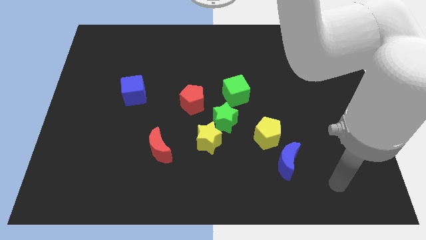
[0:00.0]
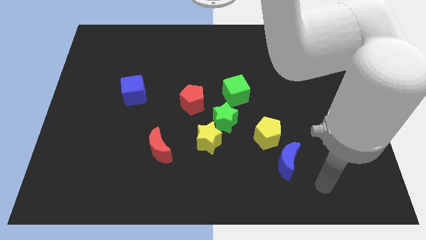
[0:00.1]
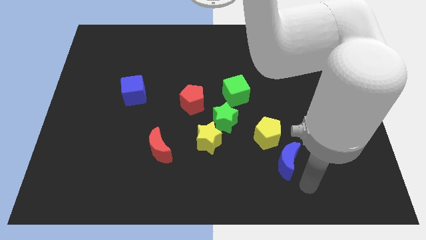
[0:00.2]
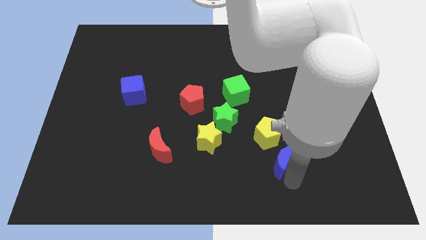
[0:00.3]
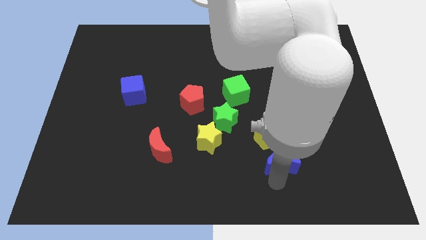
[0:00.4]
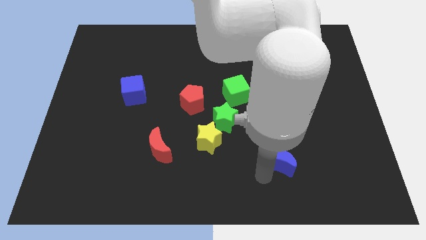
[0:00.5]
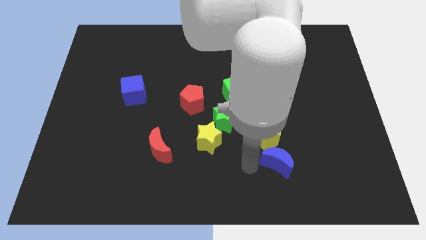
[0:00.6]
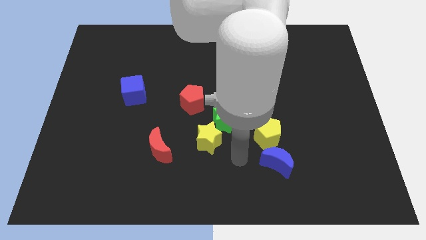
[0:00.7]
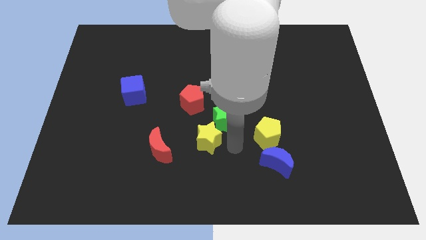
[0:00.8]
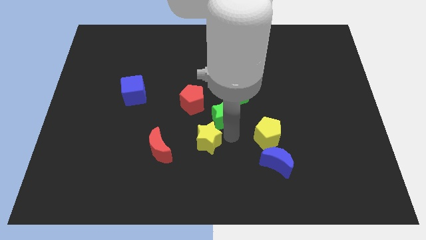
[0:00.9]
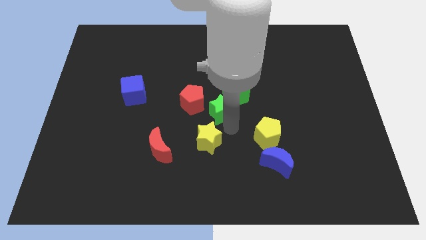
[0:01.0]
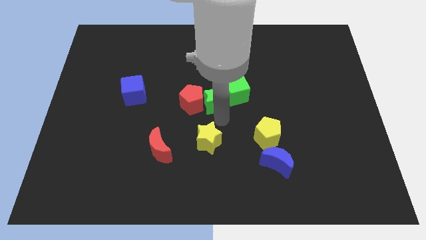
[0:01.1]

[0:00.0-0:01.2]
separate the yellow star from the green star

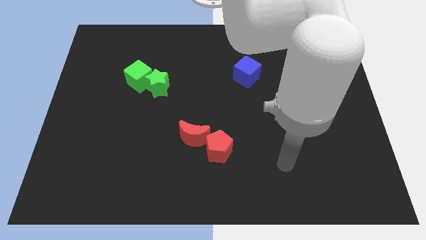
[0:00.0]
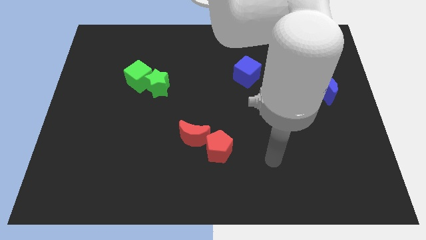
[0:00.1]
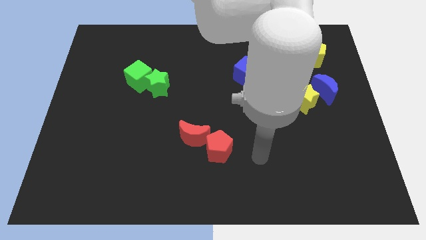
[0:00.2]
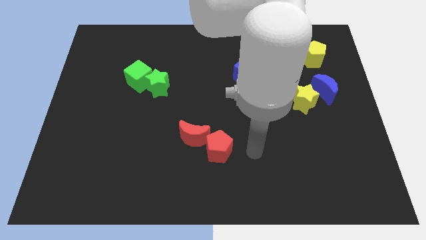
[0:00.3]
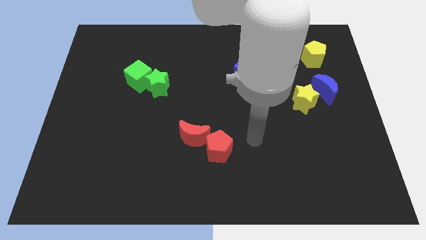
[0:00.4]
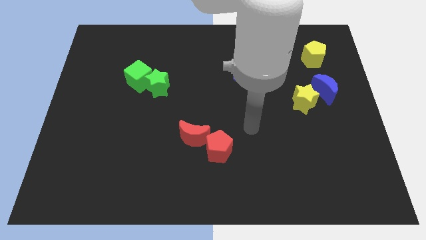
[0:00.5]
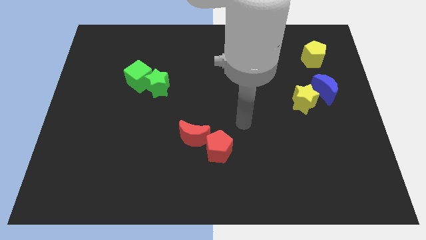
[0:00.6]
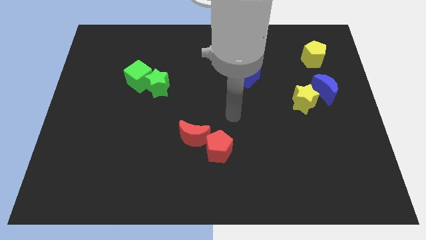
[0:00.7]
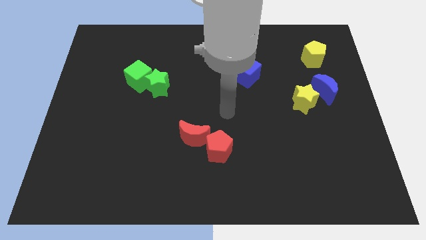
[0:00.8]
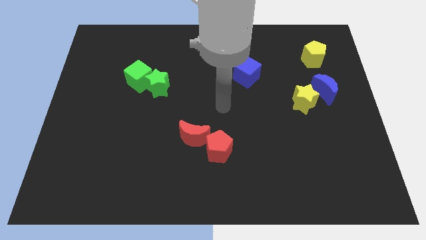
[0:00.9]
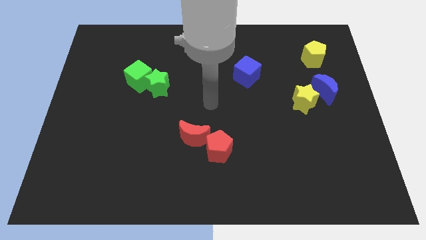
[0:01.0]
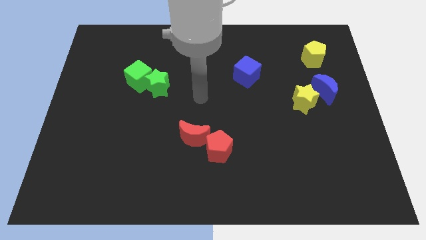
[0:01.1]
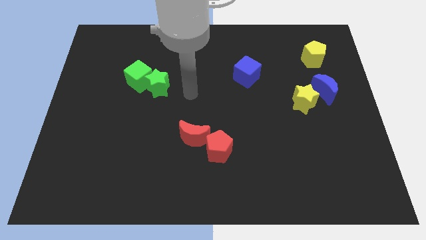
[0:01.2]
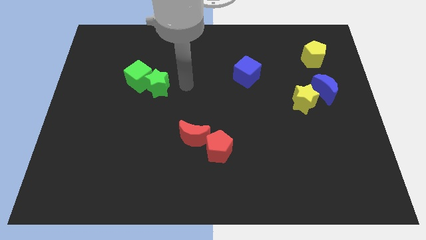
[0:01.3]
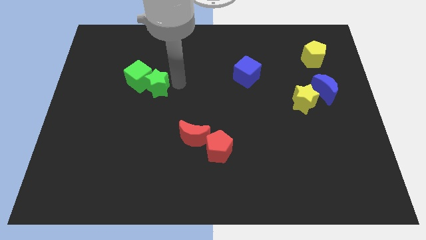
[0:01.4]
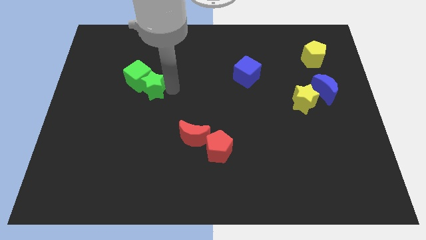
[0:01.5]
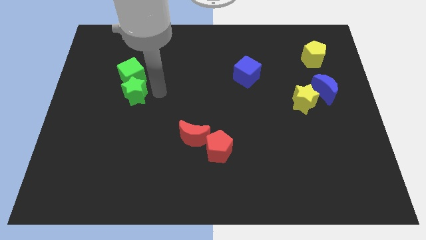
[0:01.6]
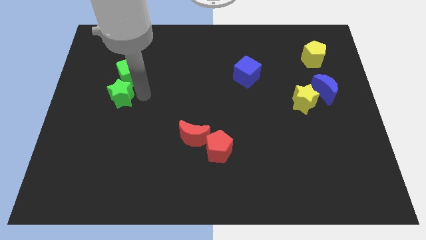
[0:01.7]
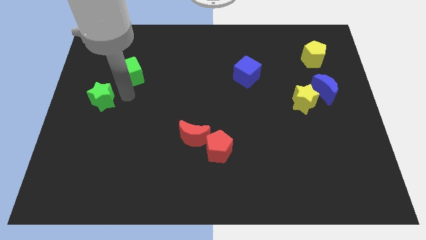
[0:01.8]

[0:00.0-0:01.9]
pull the green cube apart from the green star

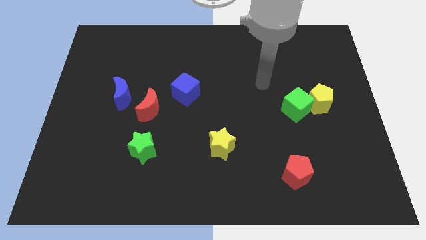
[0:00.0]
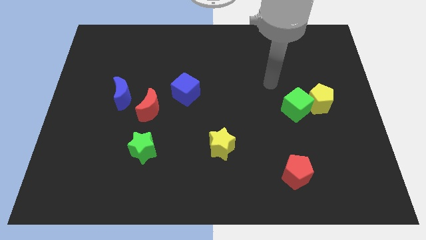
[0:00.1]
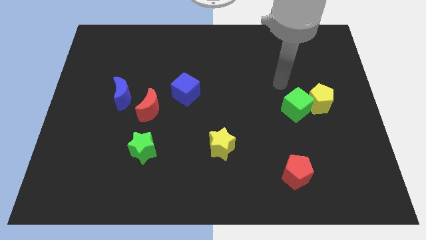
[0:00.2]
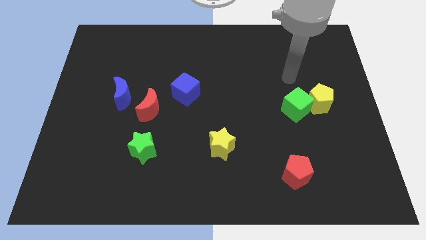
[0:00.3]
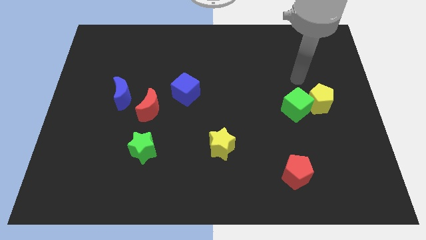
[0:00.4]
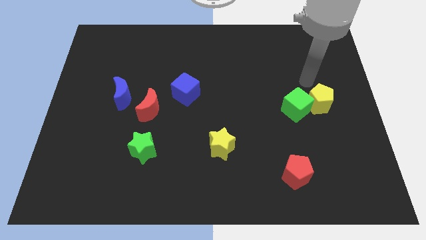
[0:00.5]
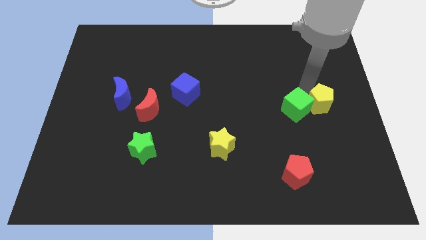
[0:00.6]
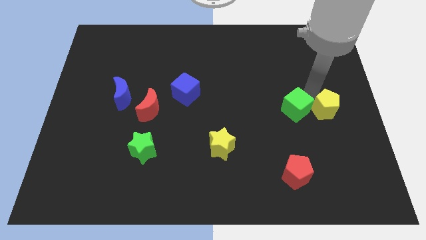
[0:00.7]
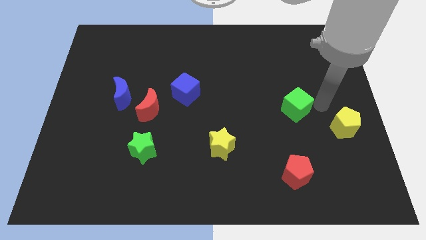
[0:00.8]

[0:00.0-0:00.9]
move the green cube away from the yellow pentagon

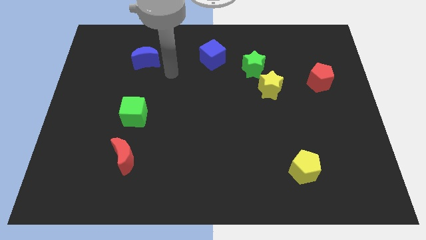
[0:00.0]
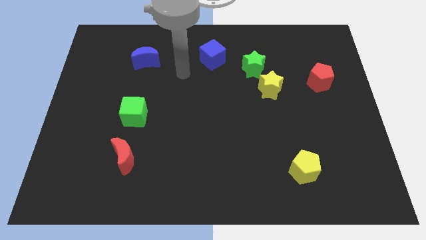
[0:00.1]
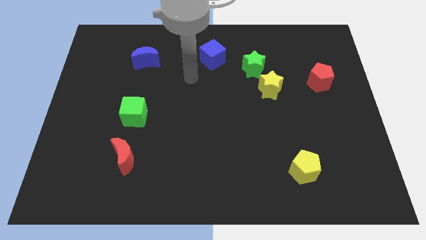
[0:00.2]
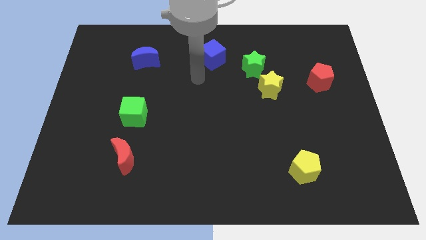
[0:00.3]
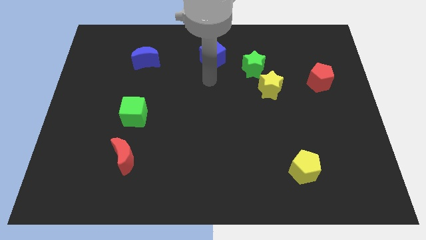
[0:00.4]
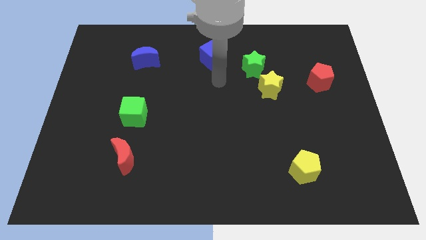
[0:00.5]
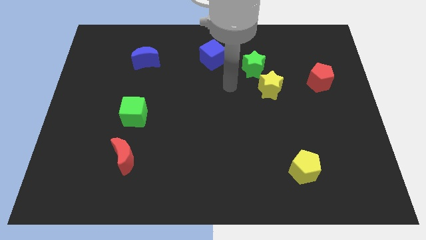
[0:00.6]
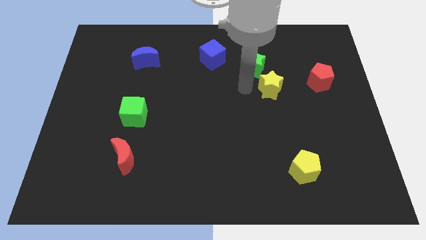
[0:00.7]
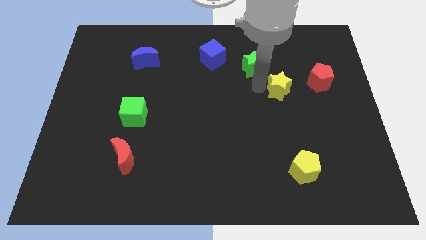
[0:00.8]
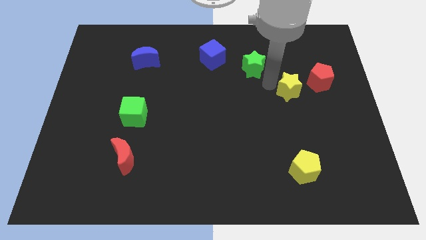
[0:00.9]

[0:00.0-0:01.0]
separate the green star from the yellow star

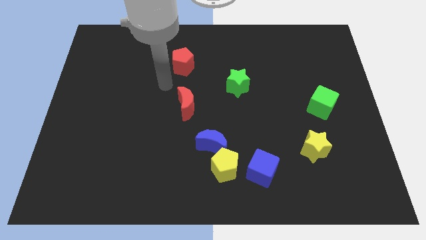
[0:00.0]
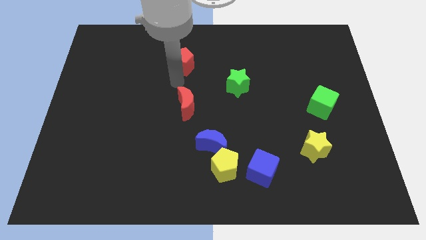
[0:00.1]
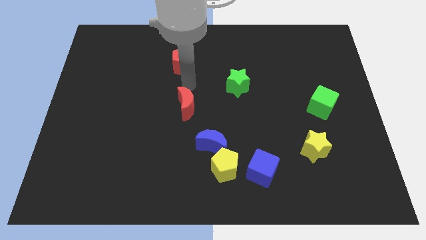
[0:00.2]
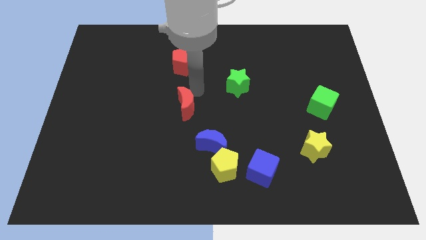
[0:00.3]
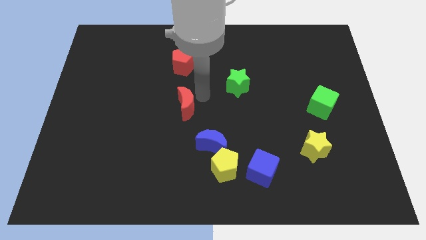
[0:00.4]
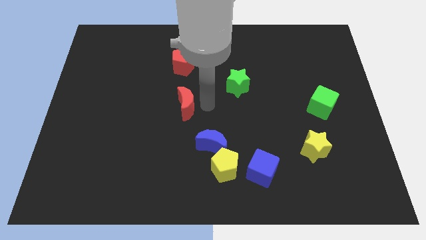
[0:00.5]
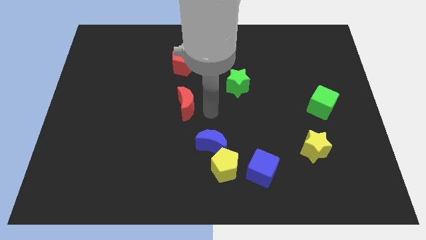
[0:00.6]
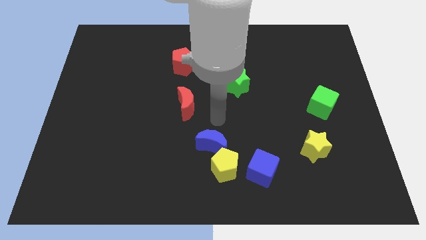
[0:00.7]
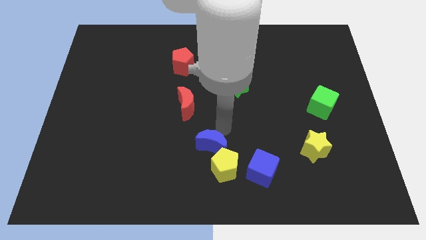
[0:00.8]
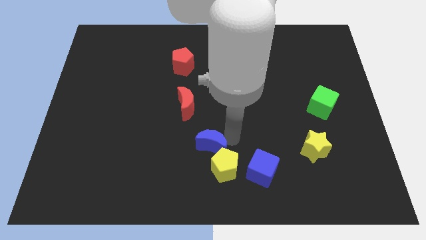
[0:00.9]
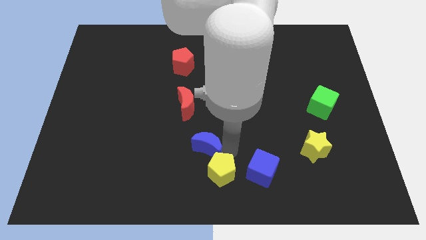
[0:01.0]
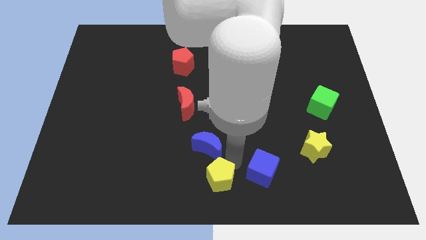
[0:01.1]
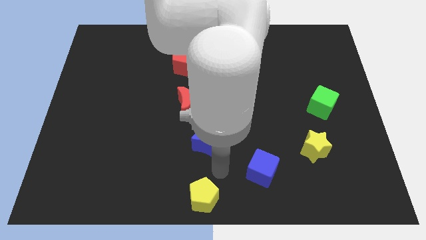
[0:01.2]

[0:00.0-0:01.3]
move the blue moon away from the yellow pentagon

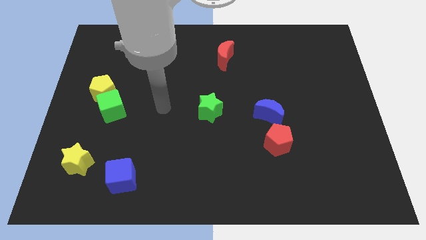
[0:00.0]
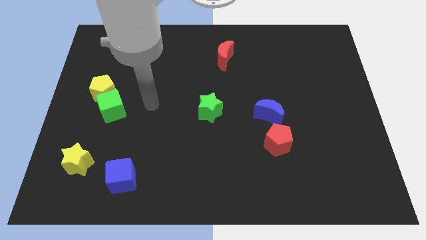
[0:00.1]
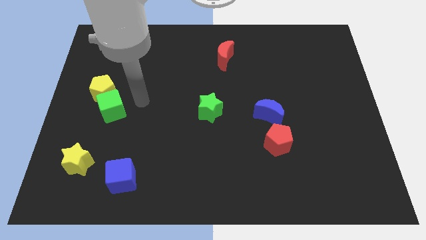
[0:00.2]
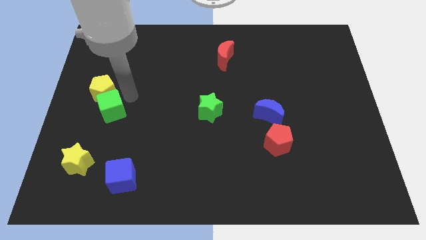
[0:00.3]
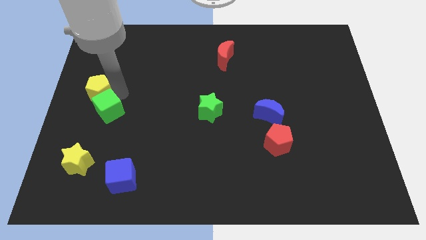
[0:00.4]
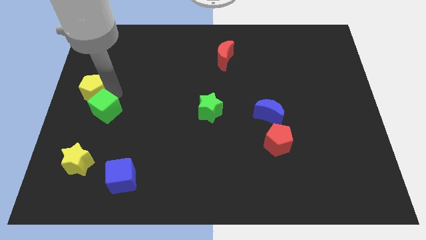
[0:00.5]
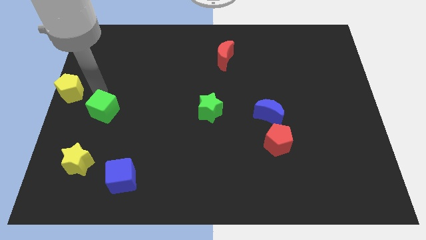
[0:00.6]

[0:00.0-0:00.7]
separate the green cube from the yellow pentagon

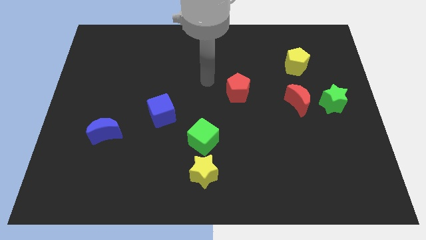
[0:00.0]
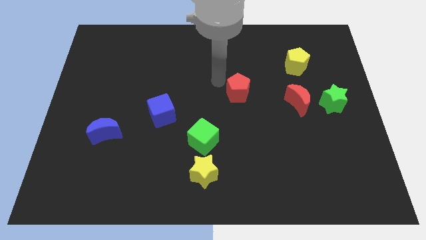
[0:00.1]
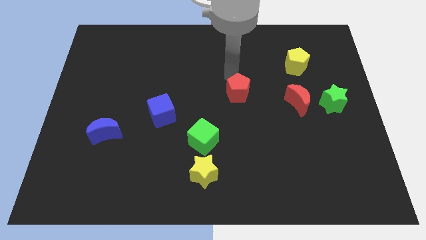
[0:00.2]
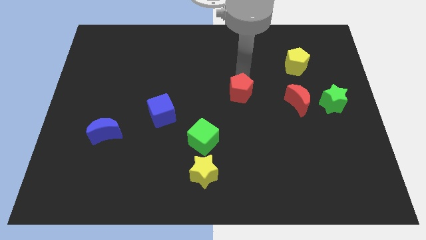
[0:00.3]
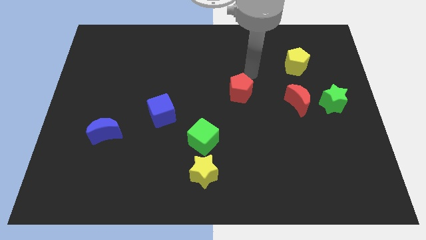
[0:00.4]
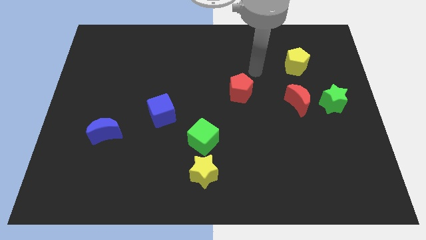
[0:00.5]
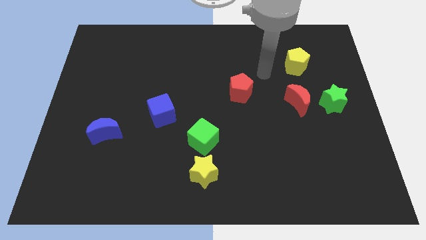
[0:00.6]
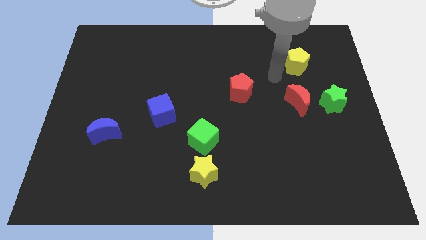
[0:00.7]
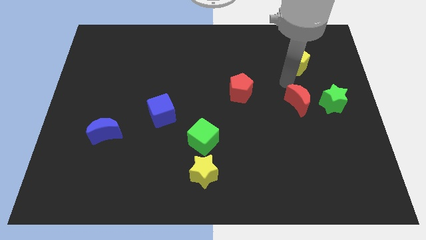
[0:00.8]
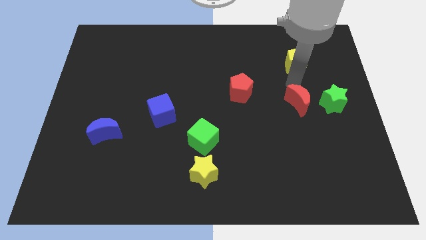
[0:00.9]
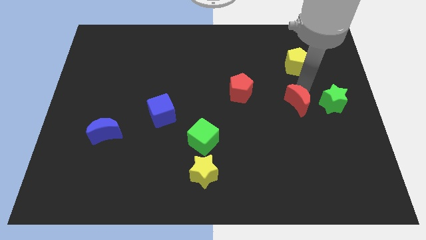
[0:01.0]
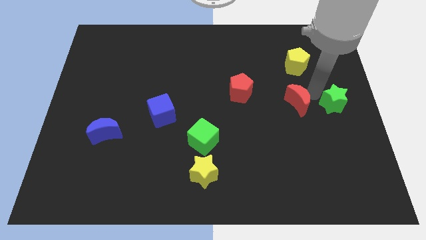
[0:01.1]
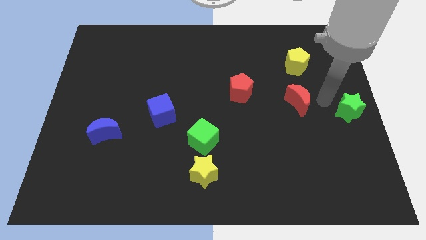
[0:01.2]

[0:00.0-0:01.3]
move the red moon away from the green star

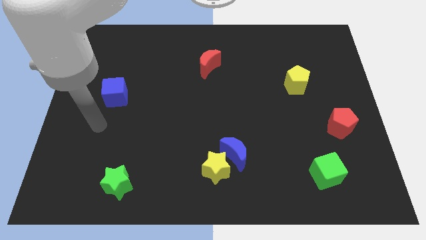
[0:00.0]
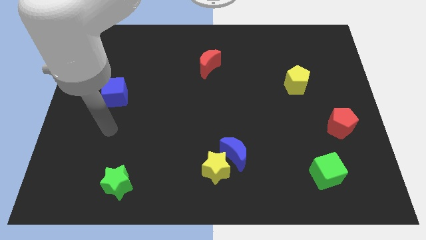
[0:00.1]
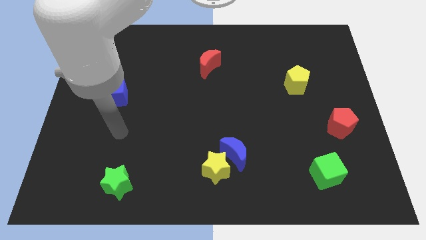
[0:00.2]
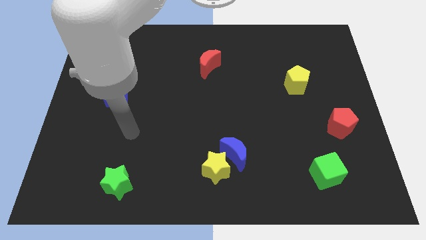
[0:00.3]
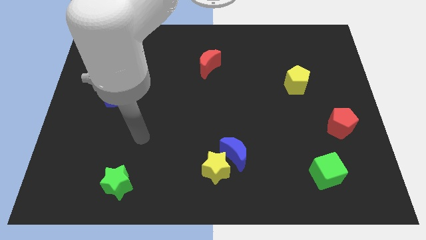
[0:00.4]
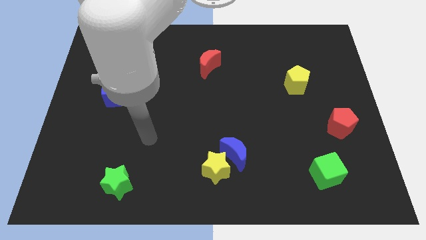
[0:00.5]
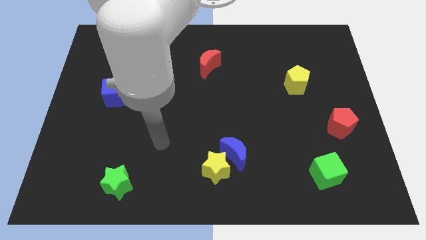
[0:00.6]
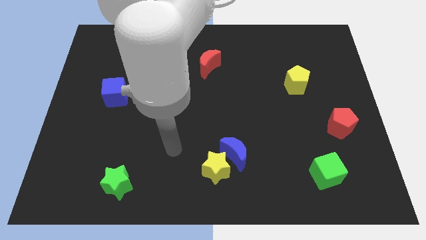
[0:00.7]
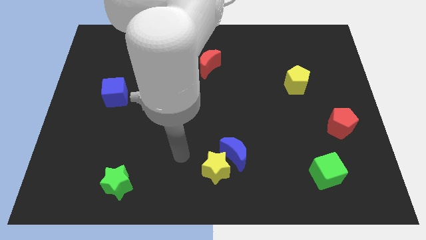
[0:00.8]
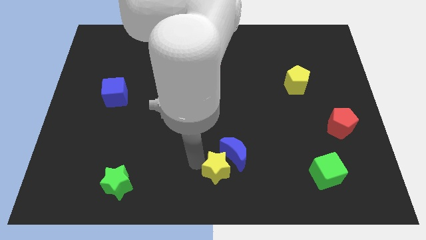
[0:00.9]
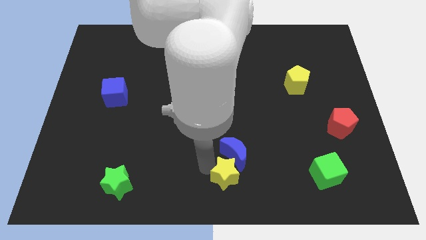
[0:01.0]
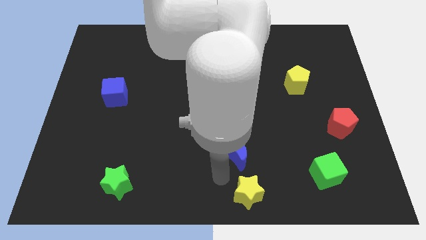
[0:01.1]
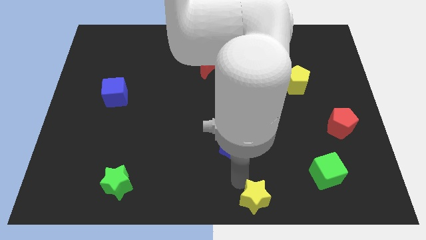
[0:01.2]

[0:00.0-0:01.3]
pull the blue moon apart from the yellow star
